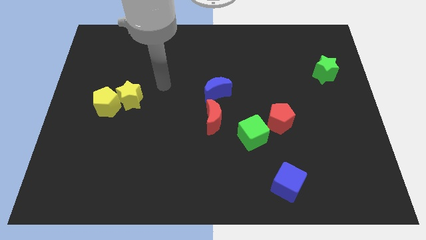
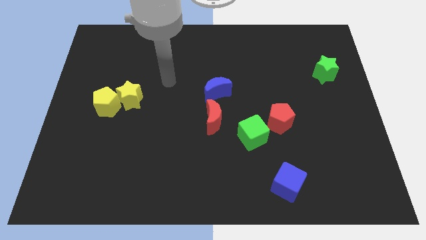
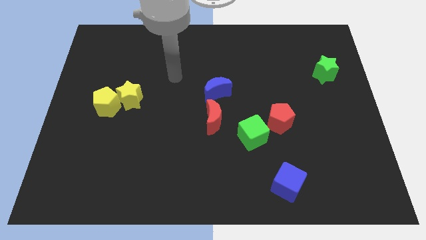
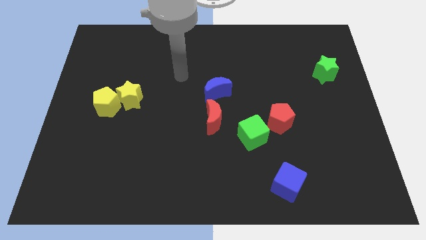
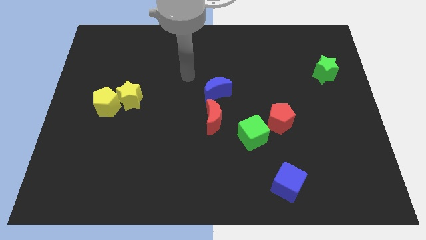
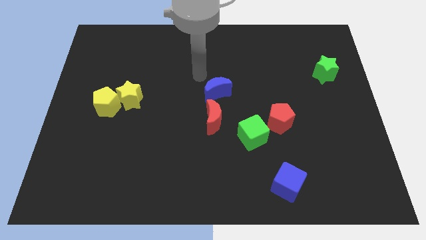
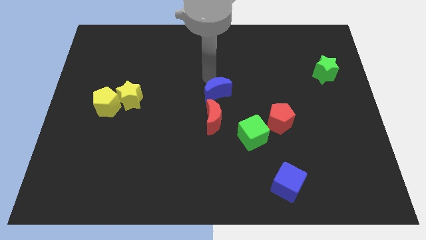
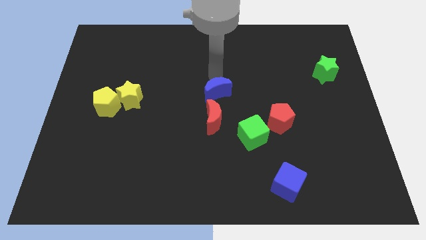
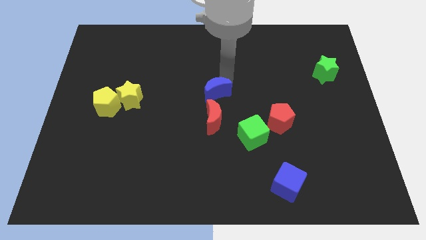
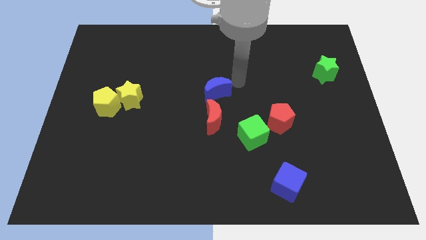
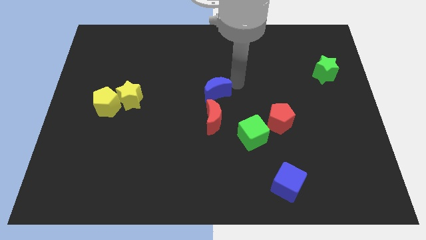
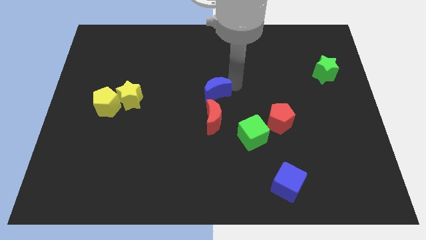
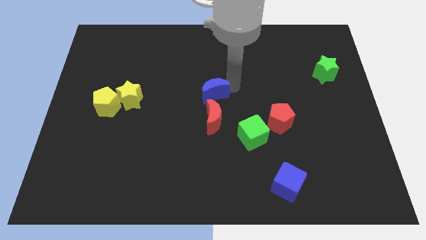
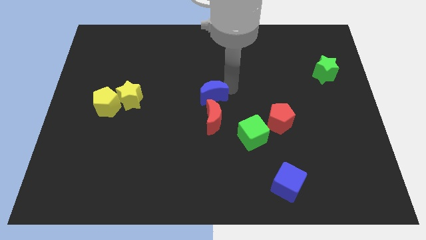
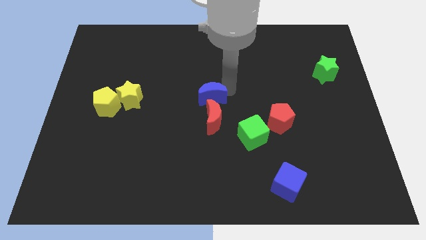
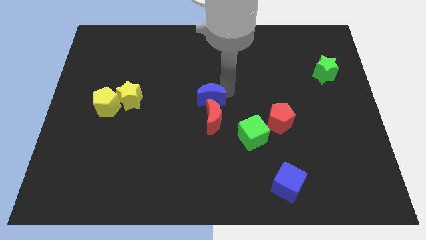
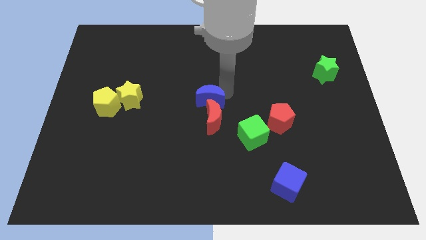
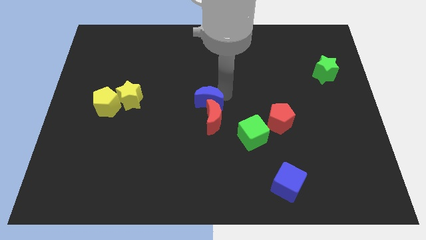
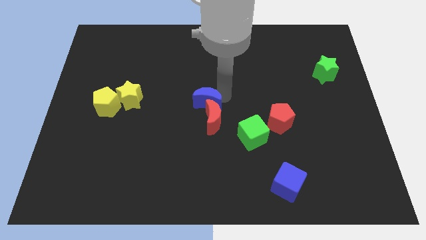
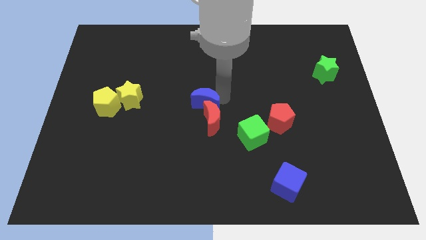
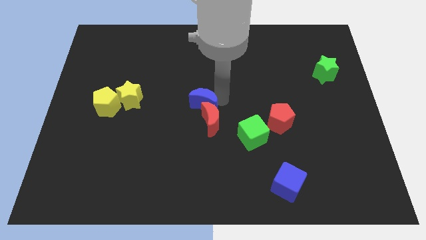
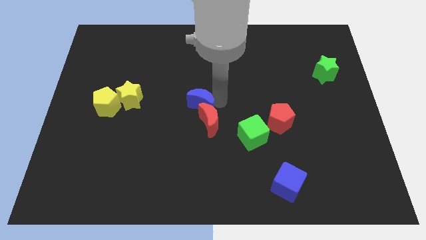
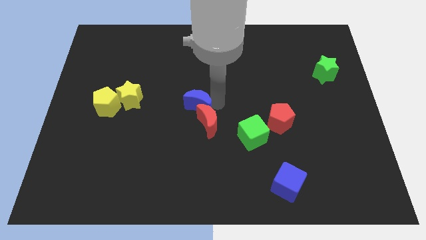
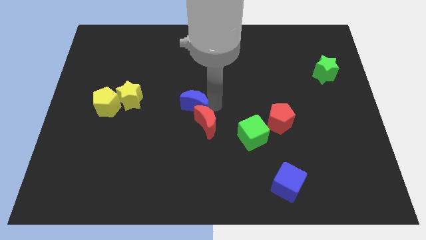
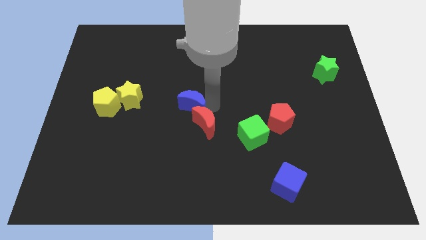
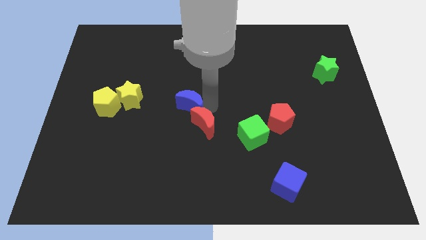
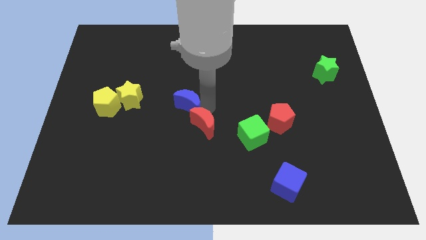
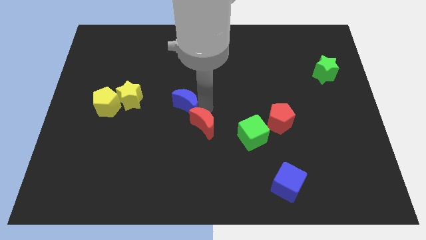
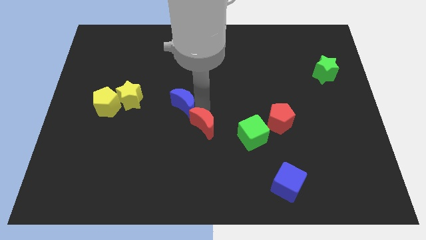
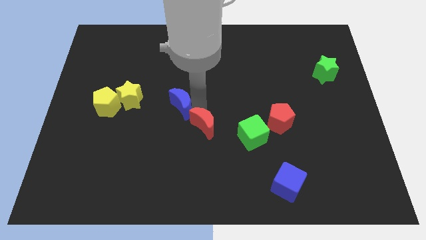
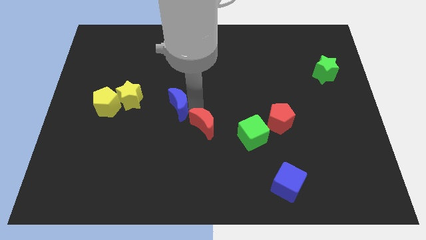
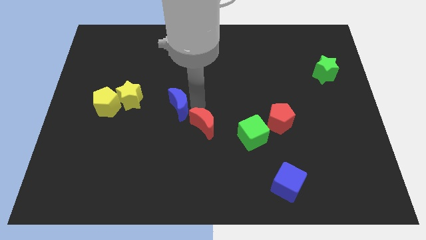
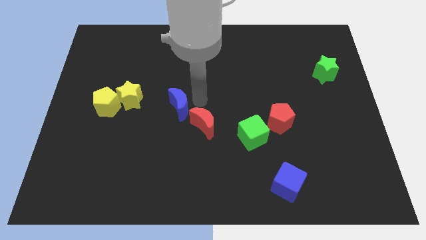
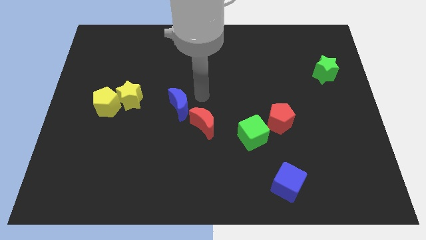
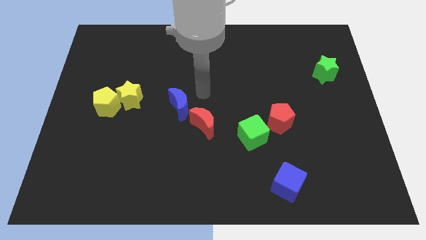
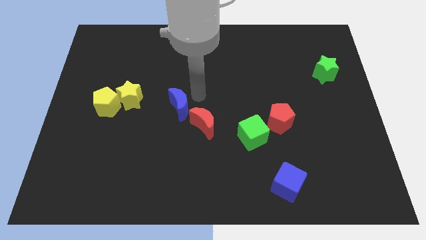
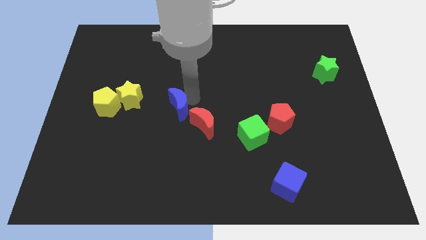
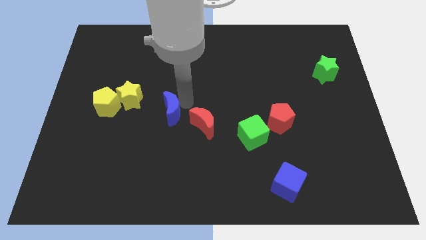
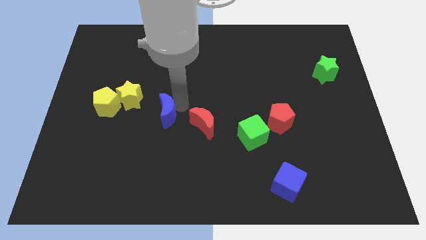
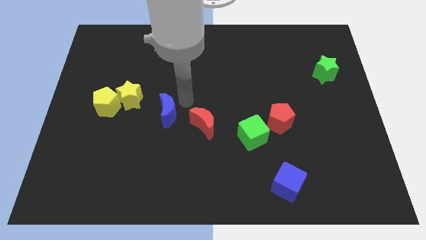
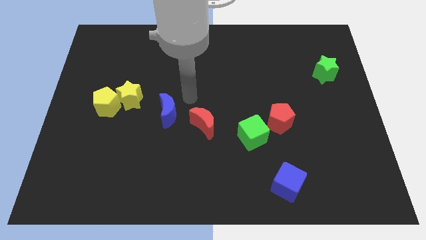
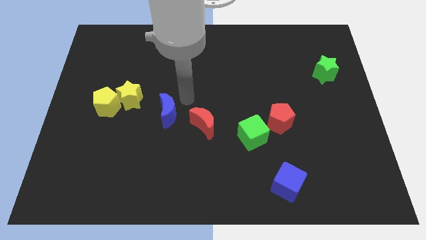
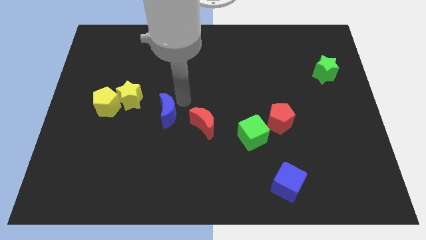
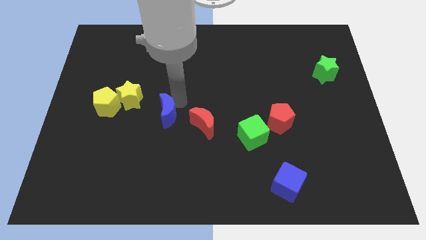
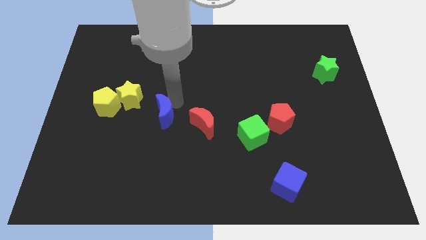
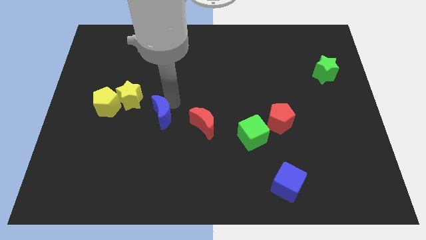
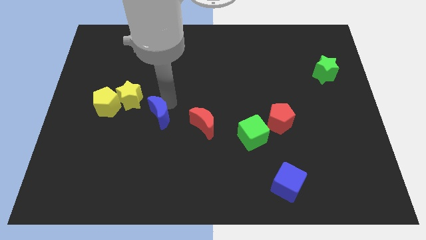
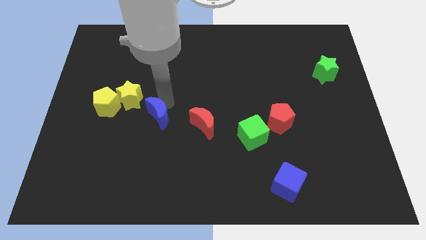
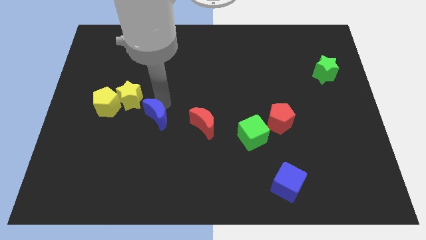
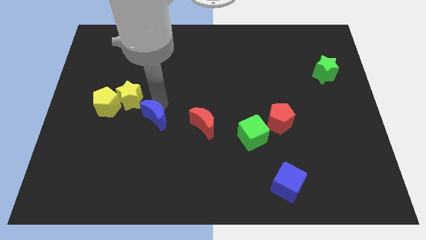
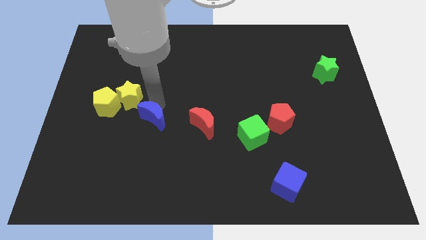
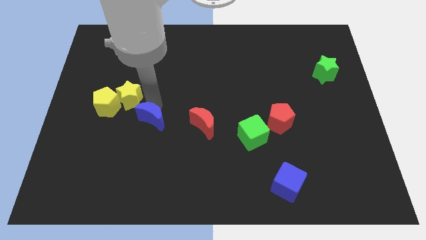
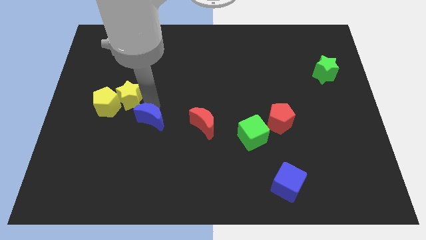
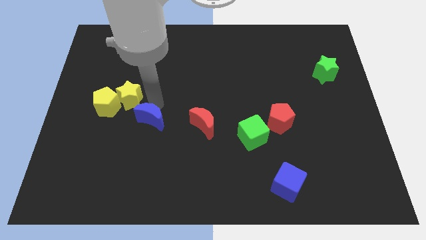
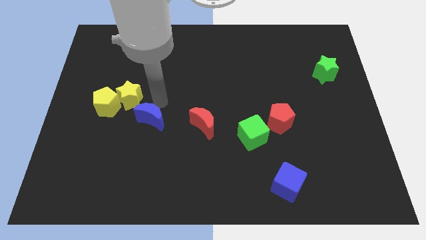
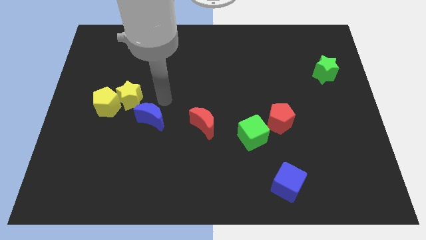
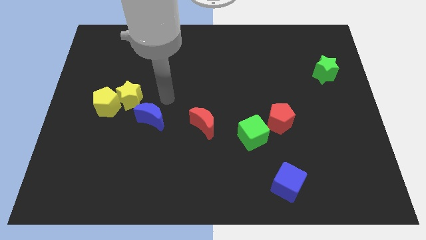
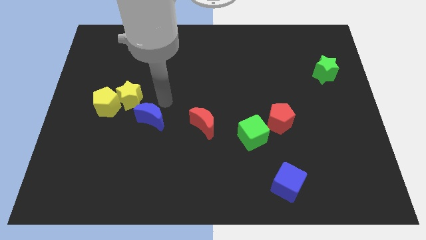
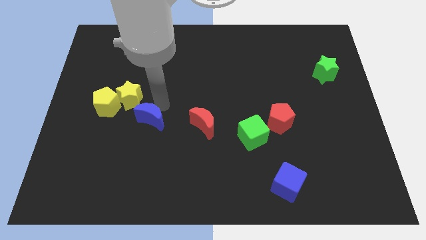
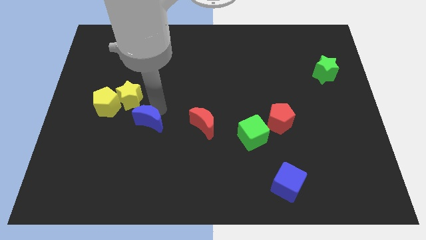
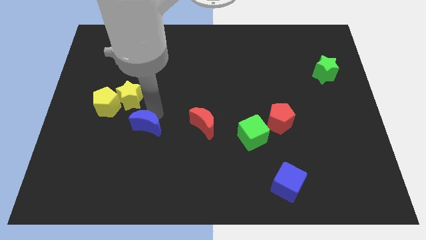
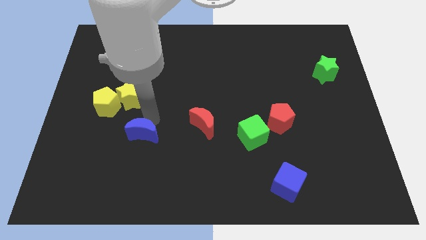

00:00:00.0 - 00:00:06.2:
move the blue moon down and left diagonally

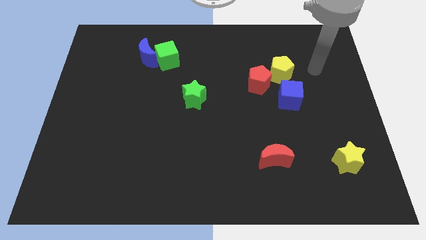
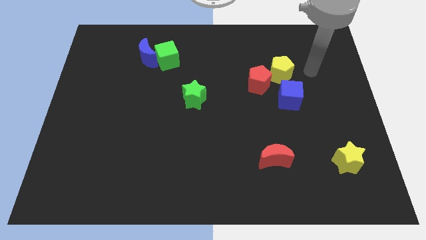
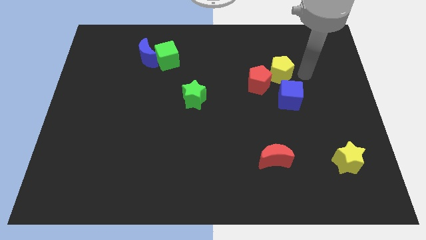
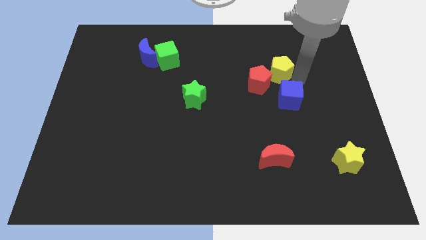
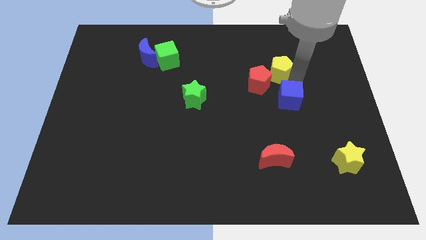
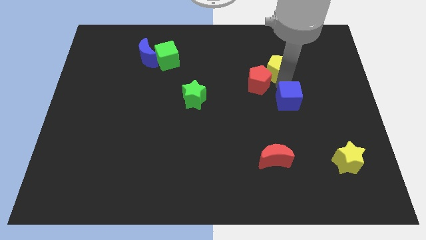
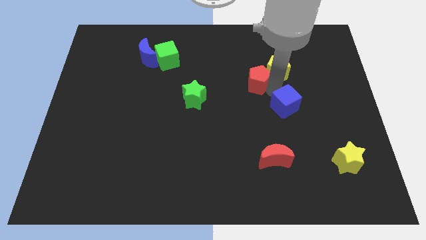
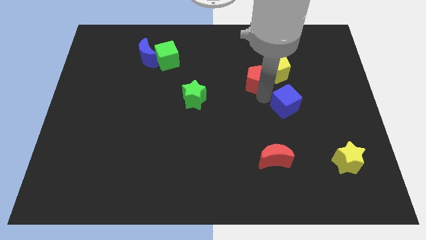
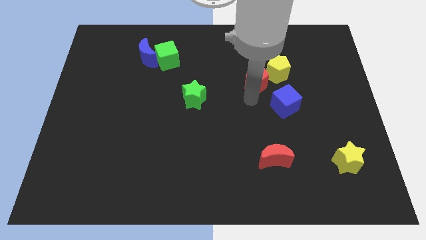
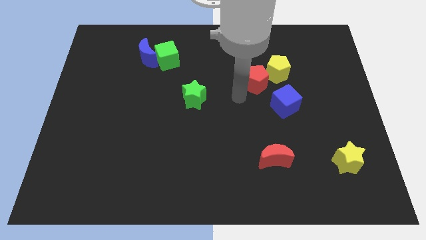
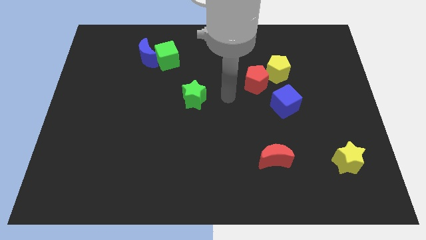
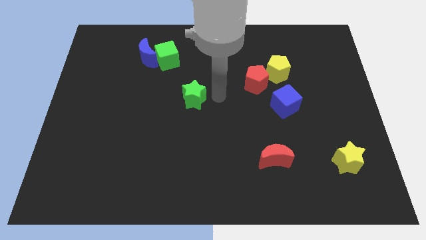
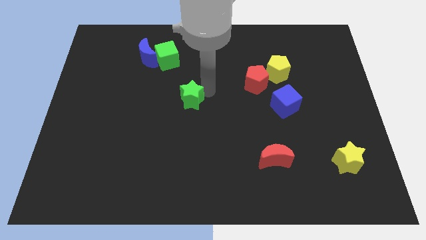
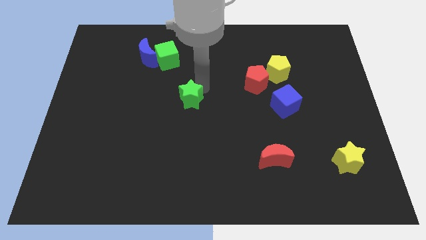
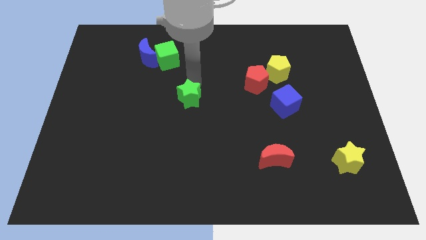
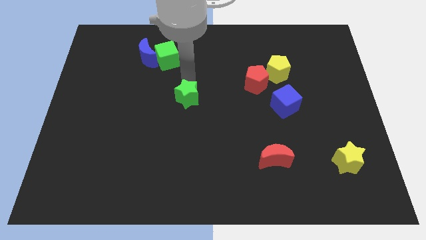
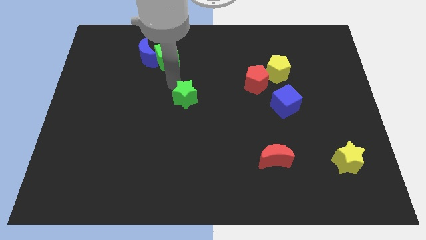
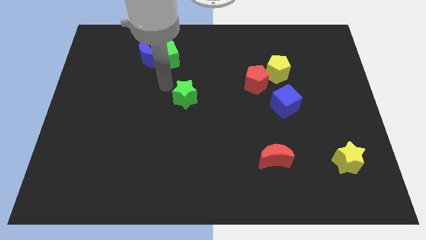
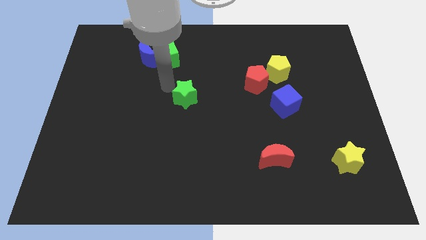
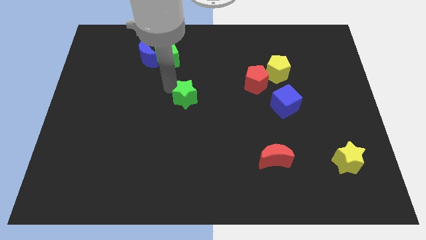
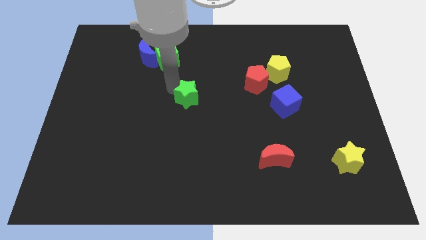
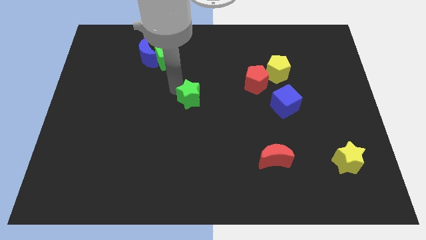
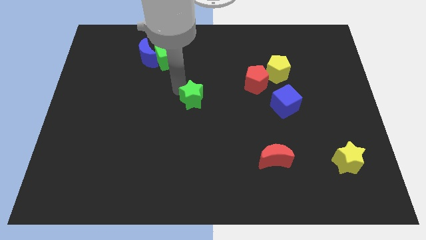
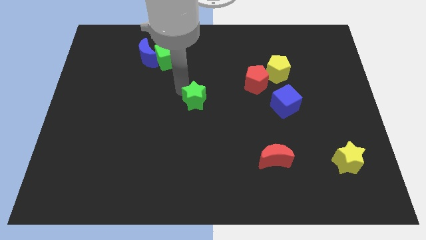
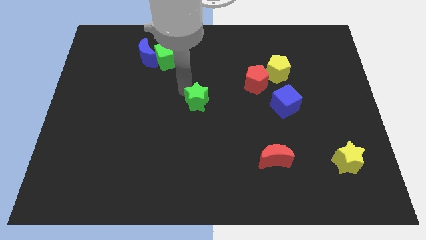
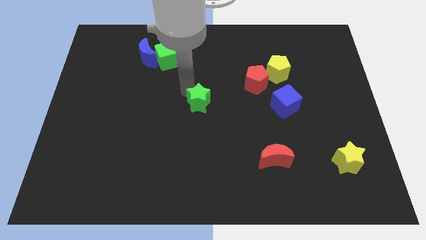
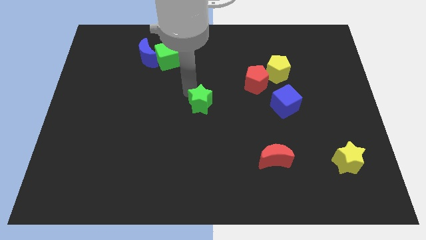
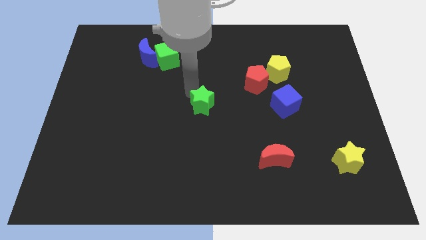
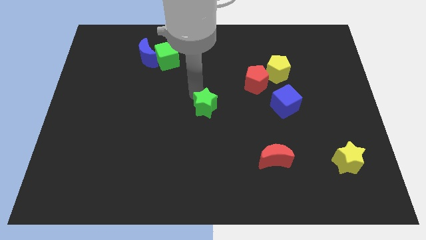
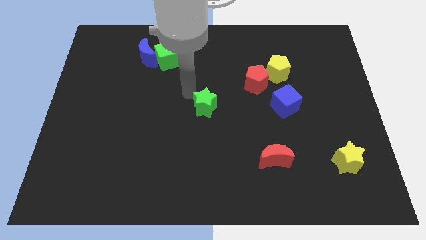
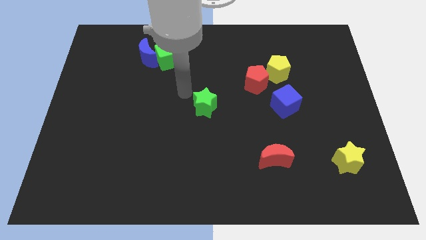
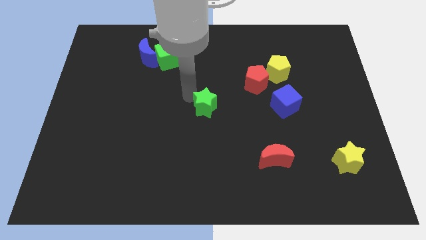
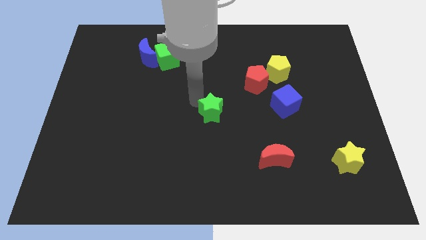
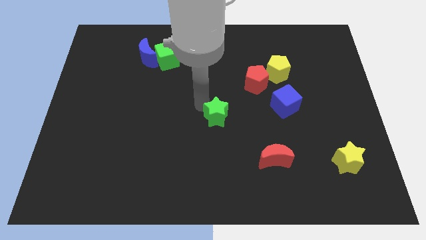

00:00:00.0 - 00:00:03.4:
slightly slide the green star down and to the right
